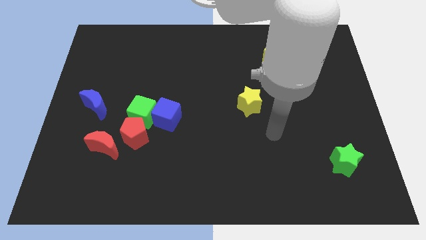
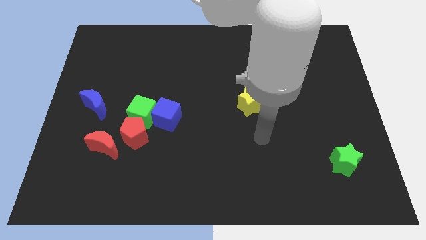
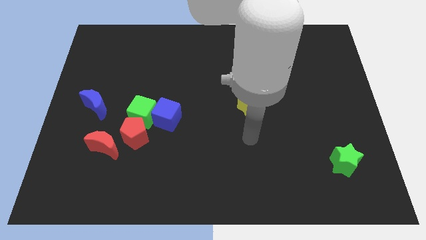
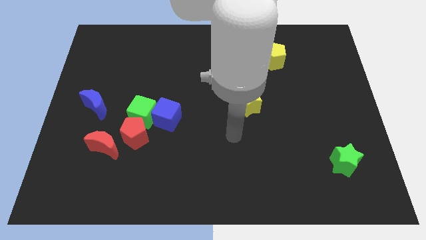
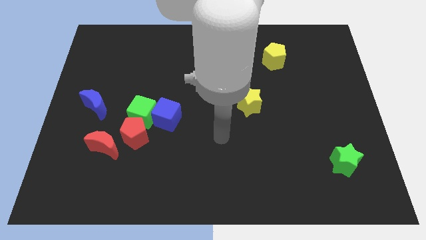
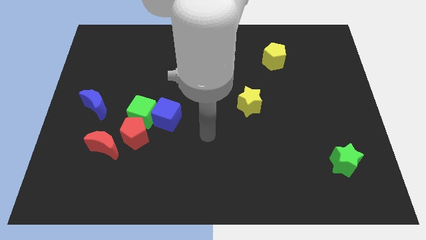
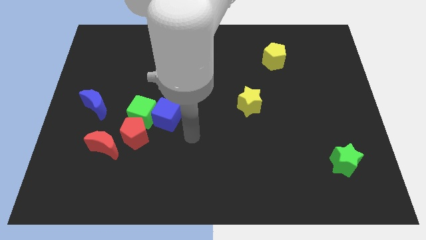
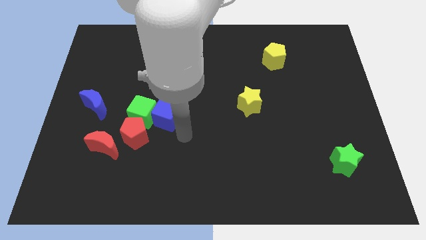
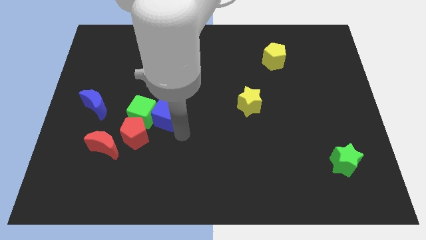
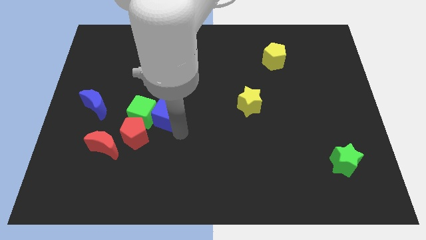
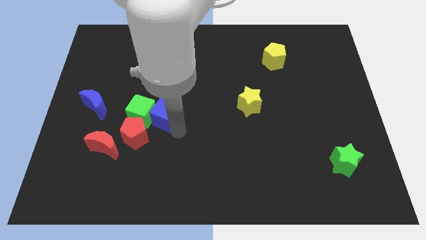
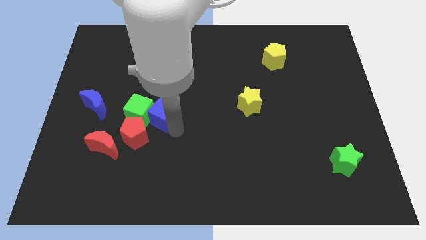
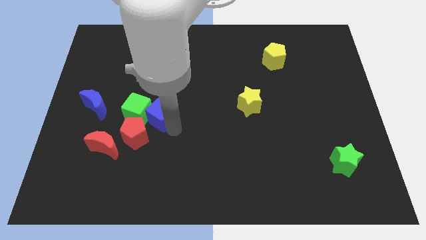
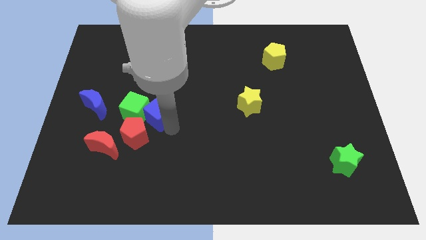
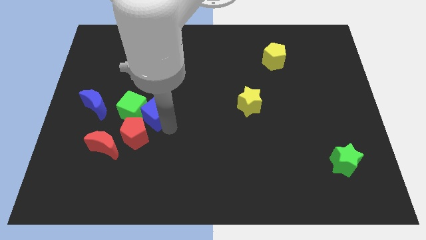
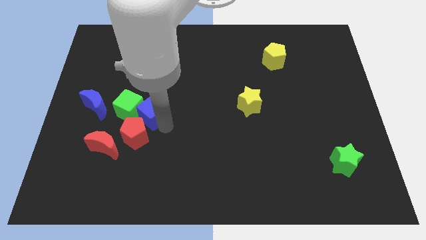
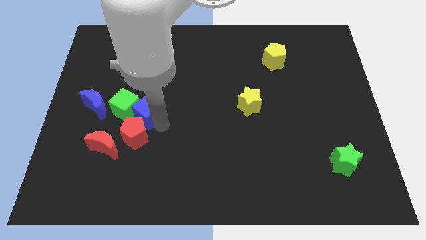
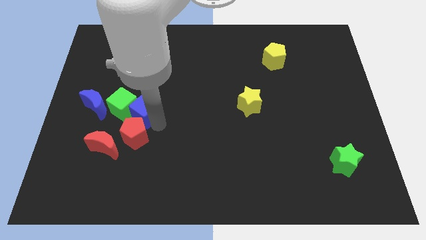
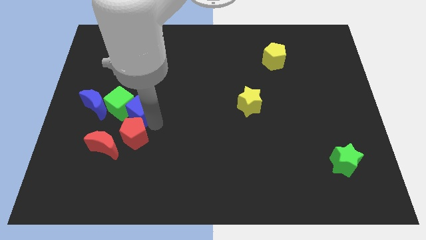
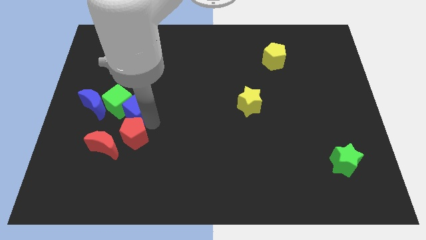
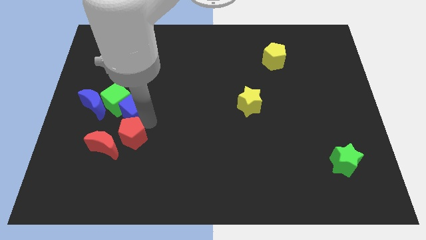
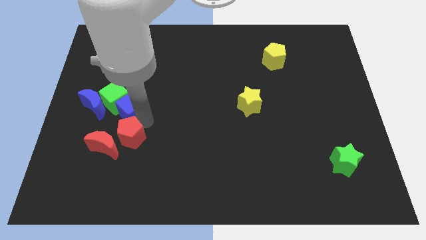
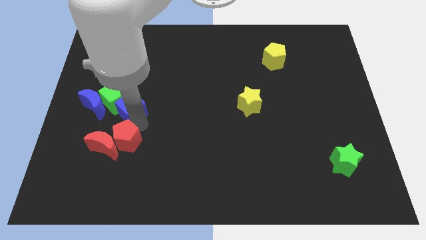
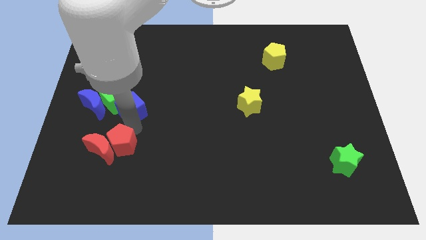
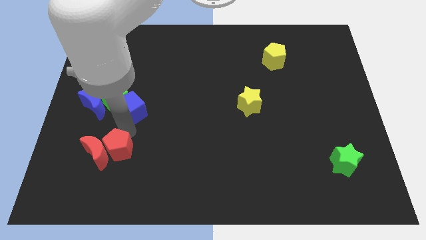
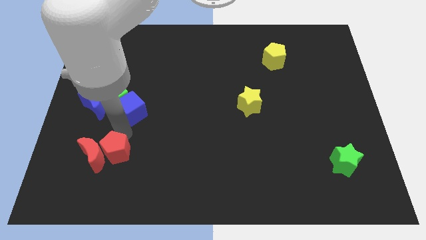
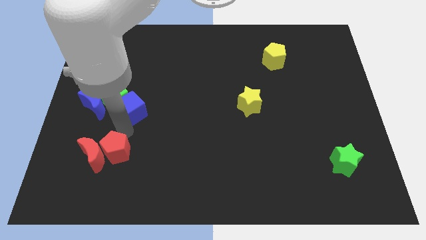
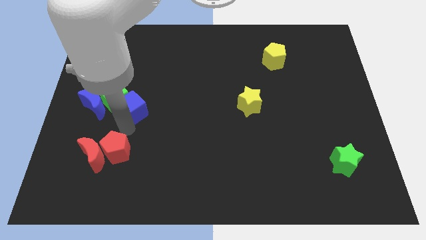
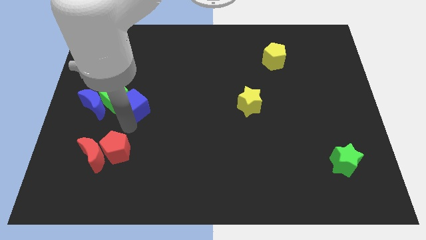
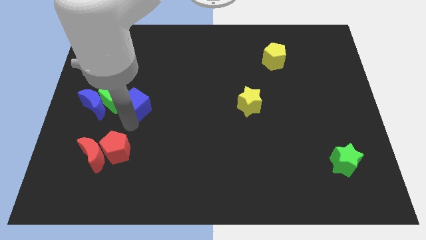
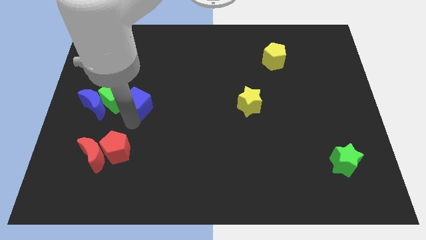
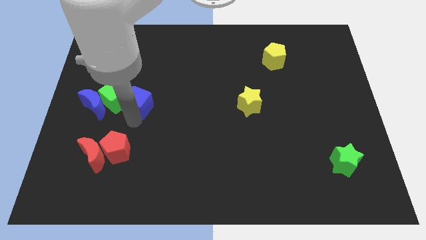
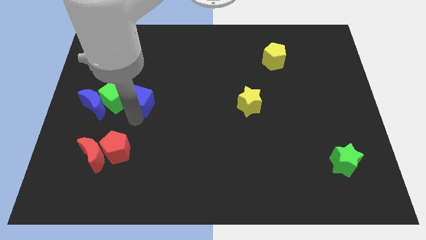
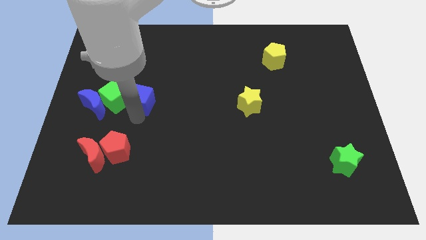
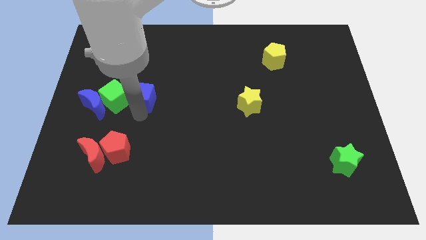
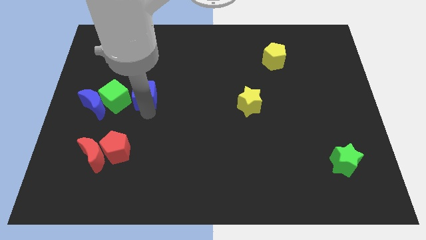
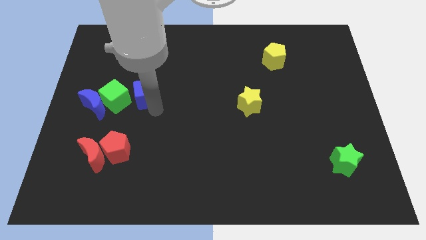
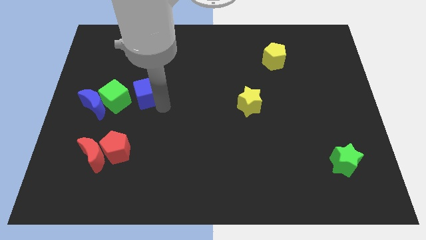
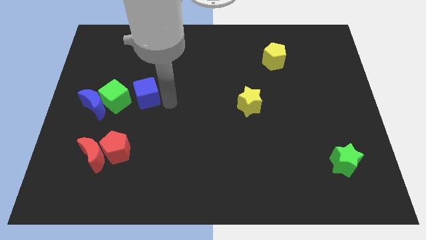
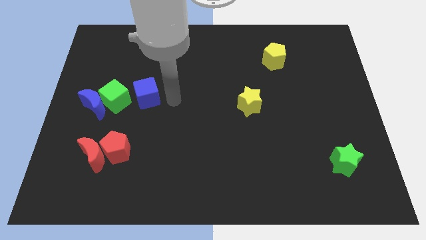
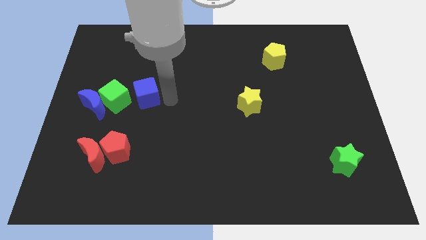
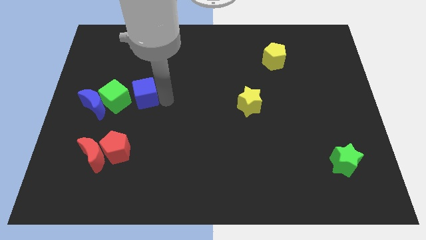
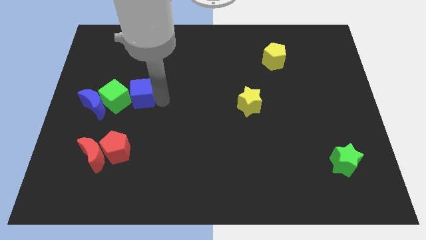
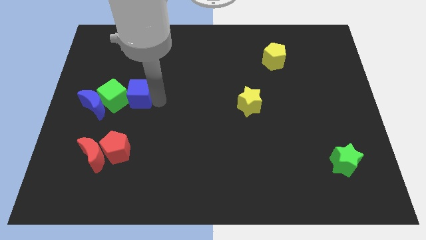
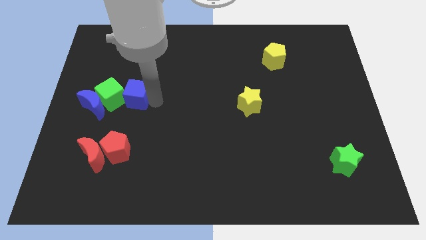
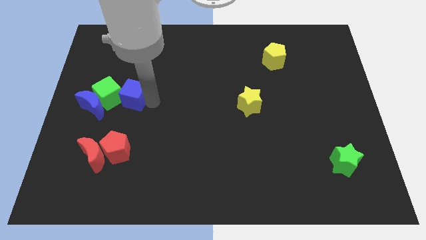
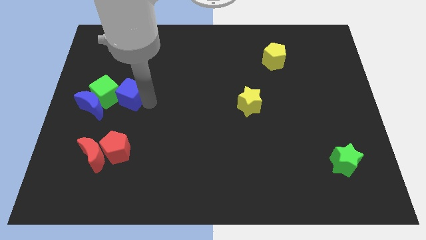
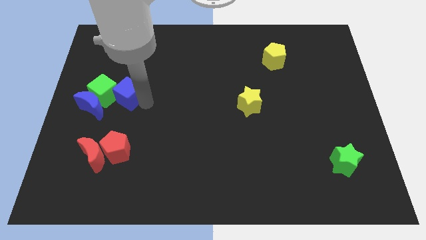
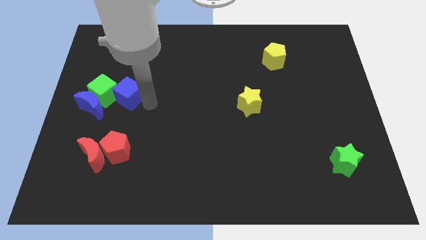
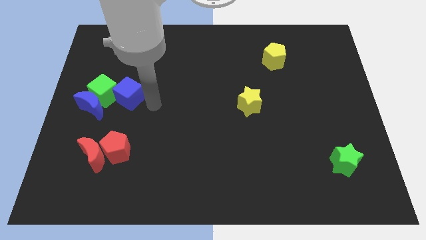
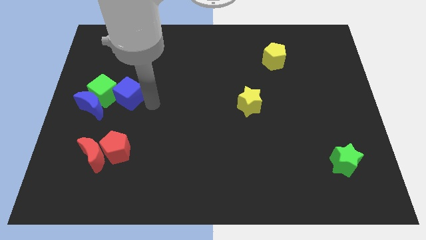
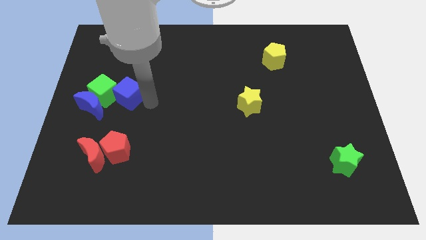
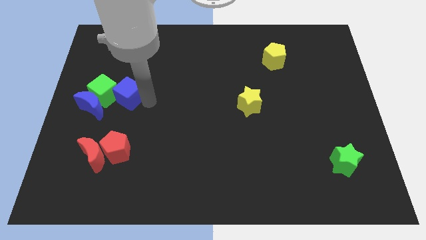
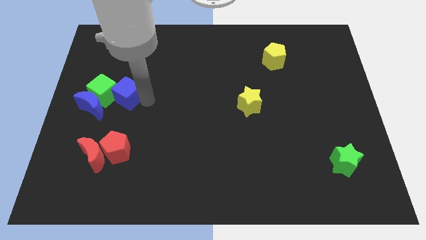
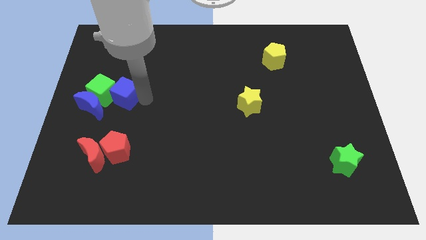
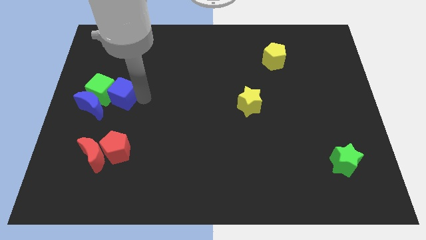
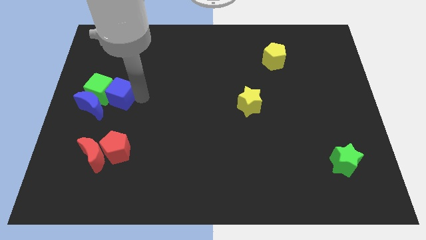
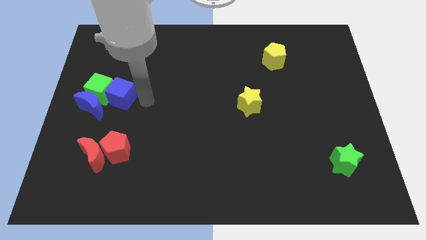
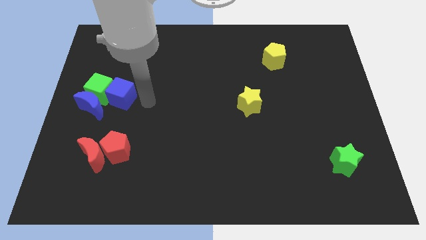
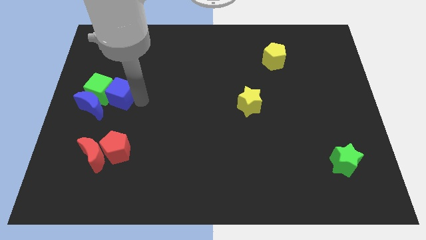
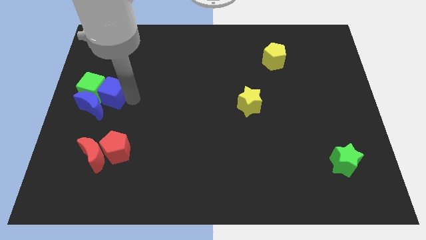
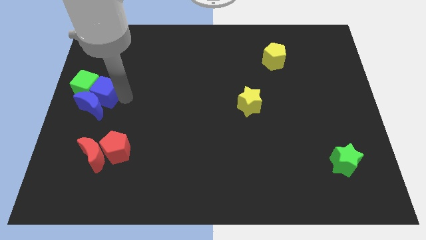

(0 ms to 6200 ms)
push the blue cube to the center left
